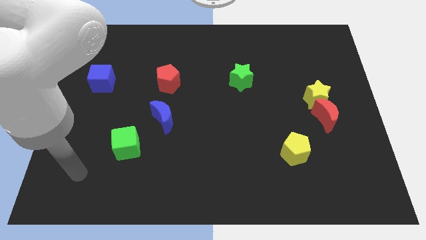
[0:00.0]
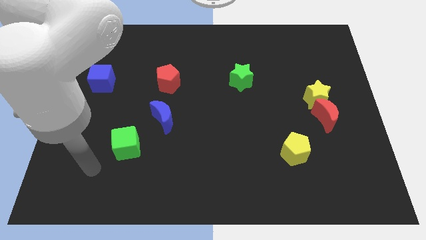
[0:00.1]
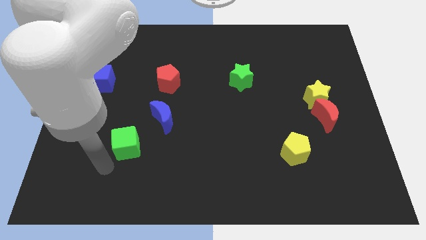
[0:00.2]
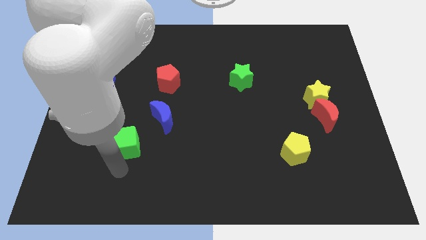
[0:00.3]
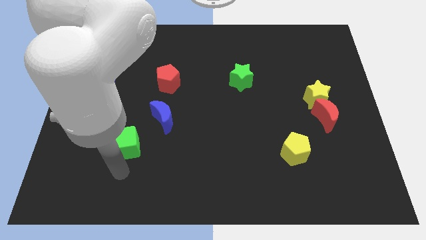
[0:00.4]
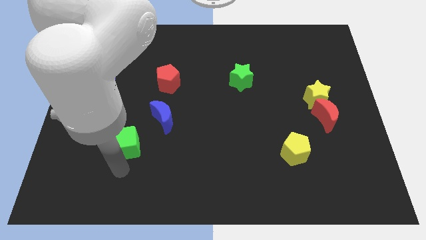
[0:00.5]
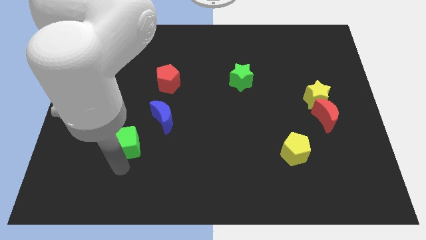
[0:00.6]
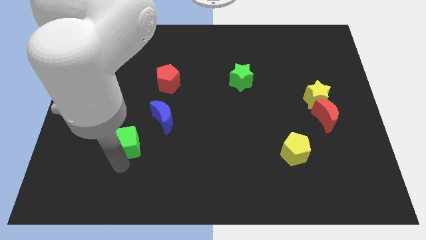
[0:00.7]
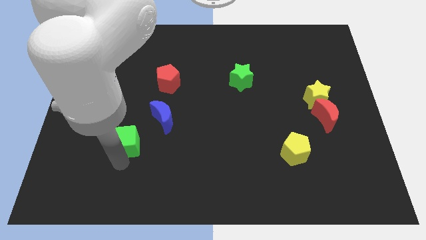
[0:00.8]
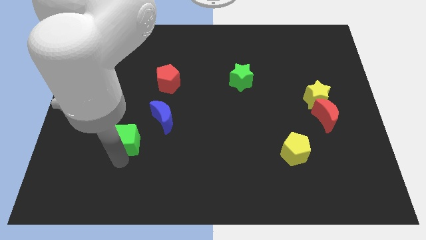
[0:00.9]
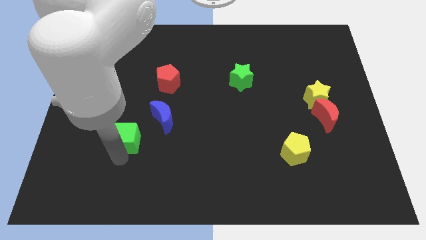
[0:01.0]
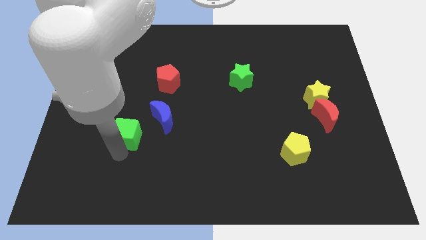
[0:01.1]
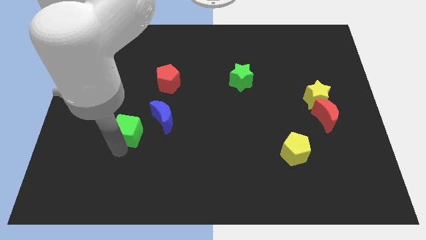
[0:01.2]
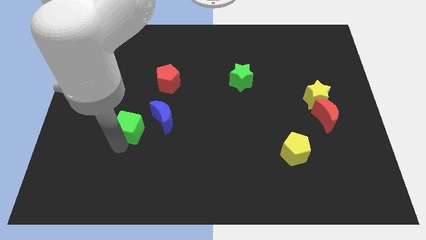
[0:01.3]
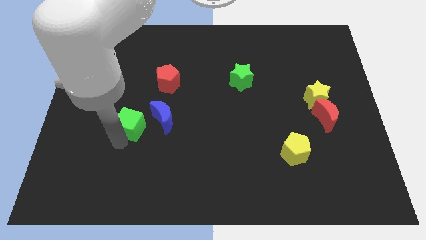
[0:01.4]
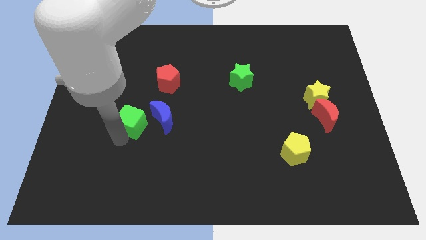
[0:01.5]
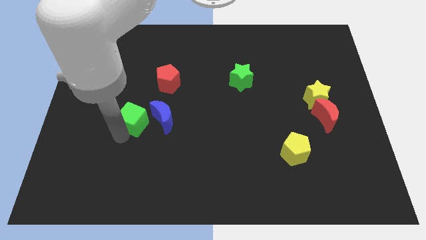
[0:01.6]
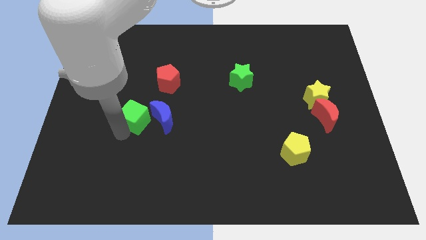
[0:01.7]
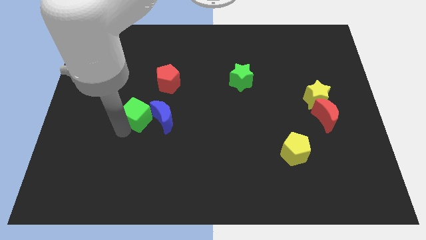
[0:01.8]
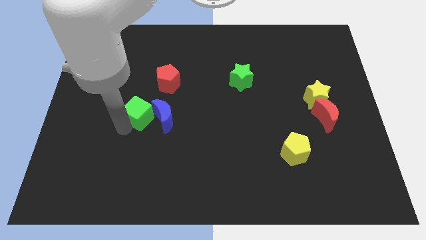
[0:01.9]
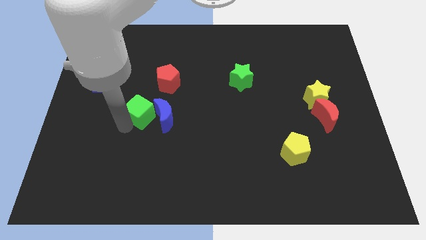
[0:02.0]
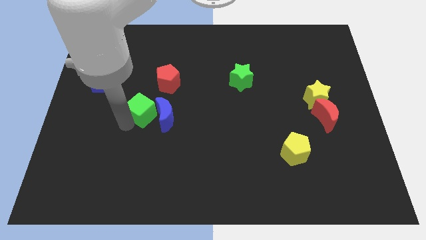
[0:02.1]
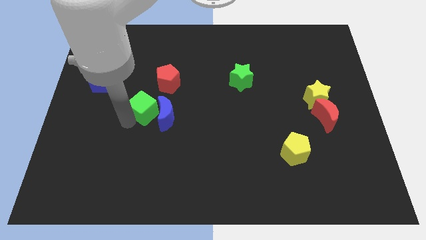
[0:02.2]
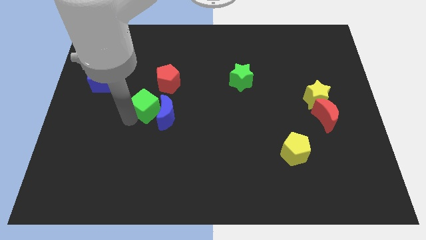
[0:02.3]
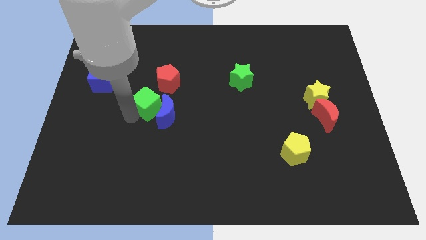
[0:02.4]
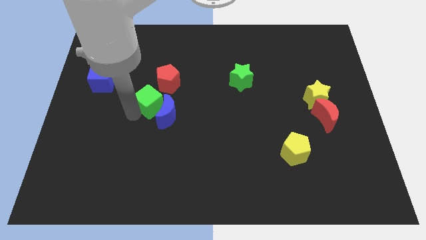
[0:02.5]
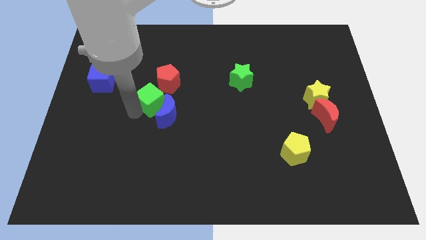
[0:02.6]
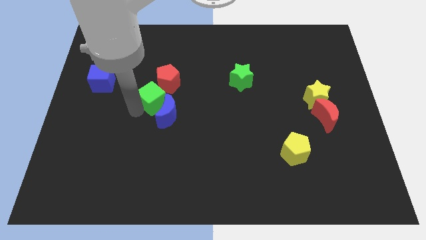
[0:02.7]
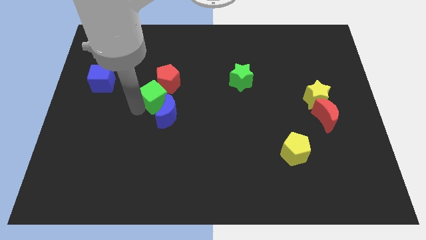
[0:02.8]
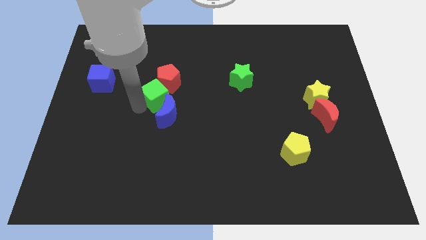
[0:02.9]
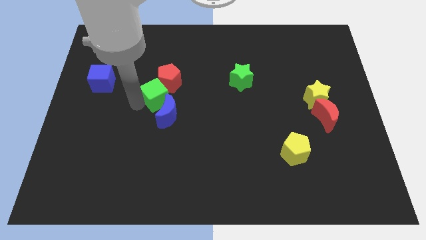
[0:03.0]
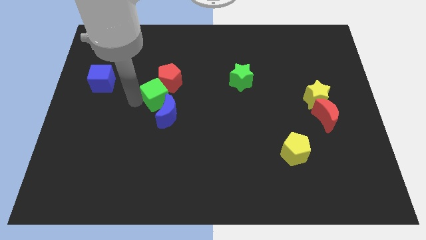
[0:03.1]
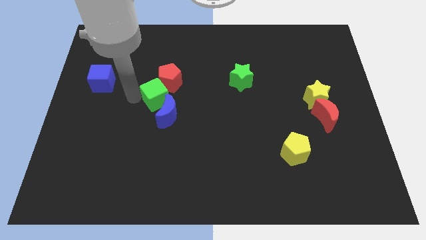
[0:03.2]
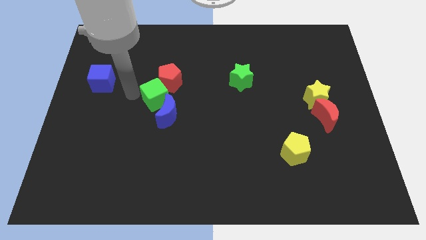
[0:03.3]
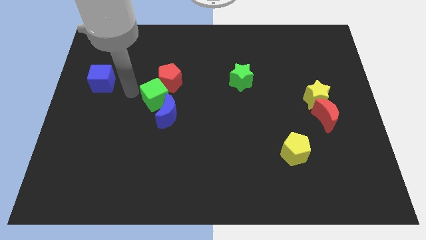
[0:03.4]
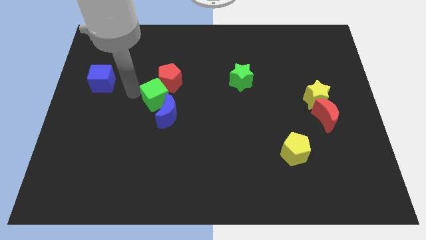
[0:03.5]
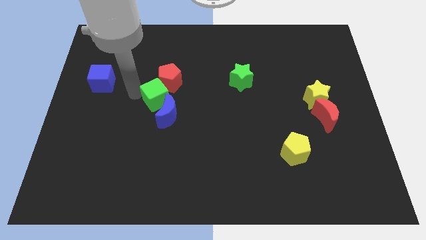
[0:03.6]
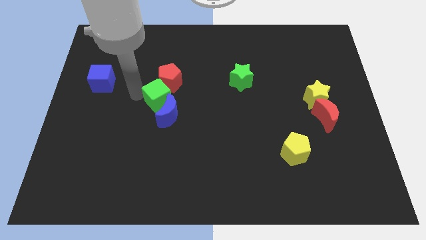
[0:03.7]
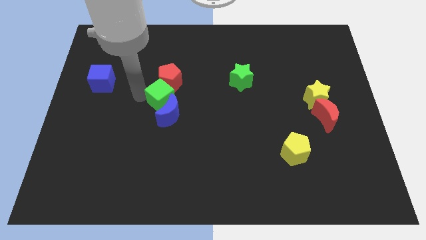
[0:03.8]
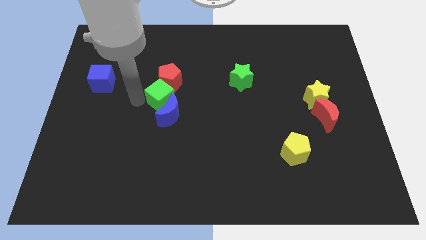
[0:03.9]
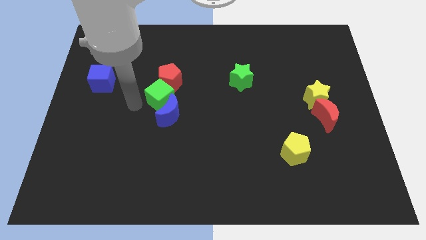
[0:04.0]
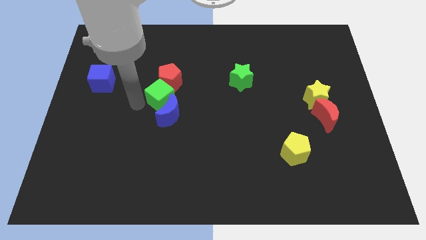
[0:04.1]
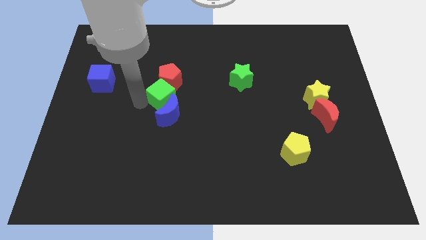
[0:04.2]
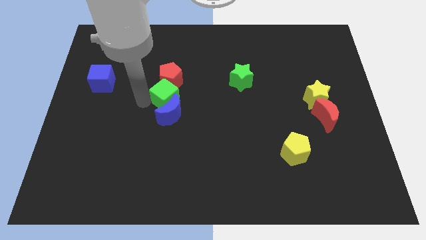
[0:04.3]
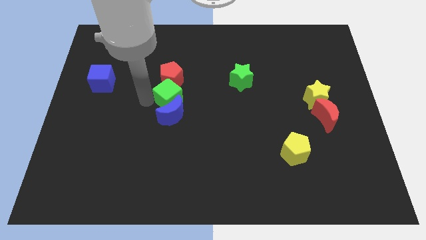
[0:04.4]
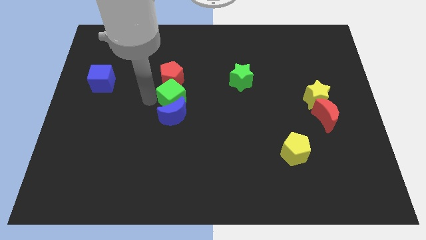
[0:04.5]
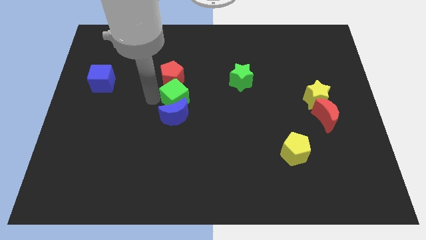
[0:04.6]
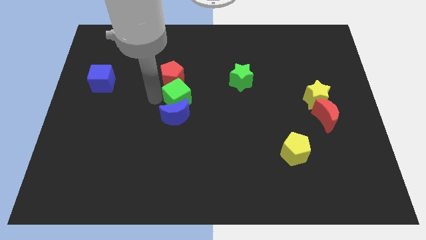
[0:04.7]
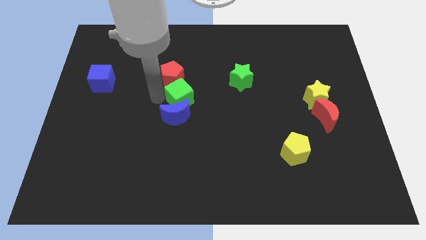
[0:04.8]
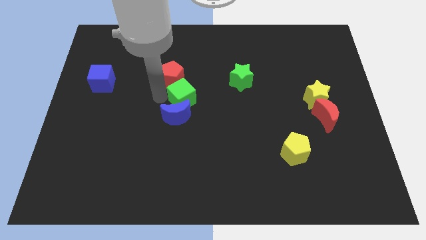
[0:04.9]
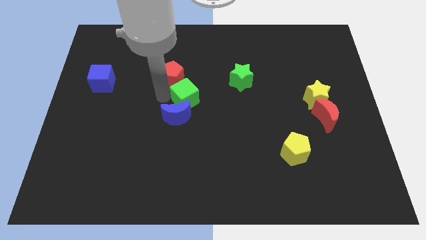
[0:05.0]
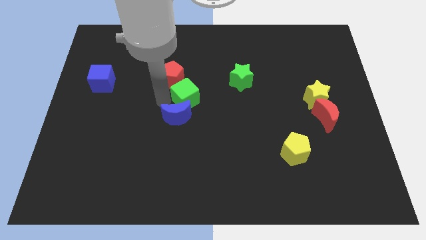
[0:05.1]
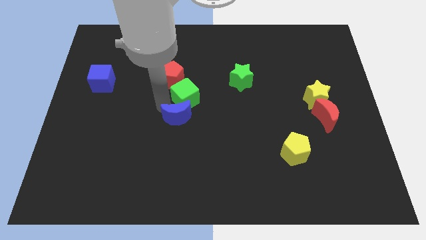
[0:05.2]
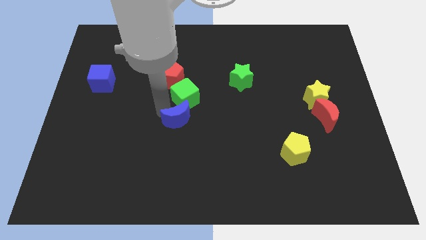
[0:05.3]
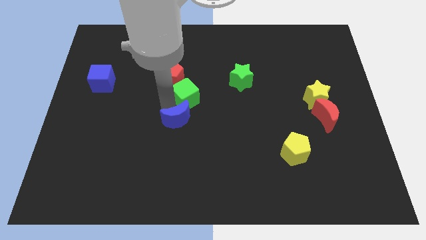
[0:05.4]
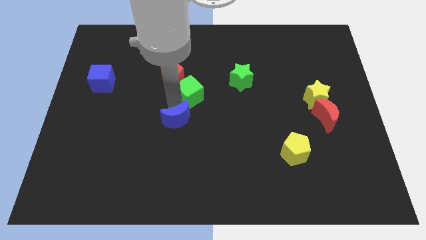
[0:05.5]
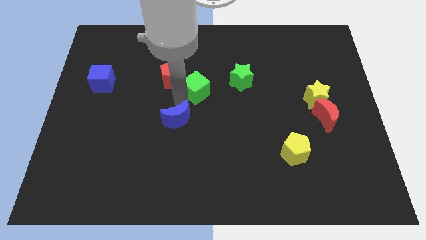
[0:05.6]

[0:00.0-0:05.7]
slide the green cube upwards and right

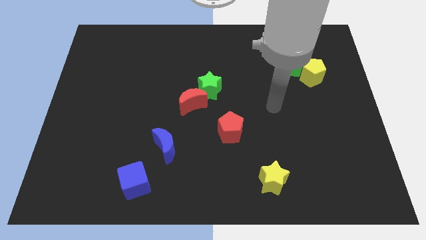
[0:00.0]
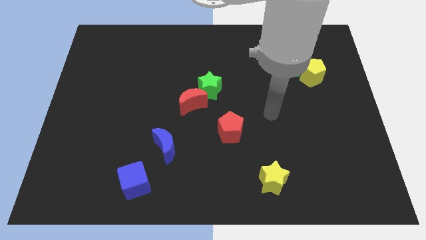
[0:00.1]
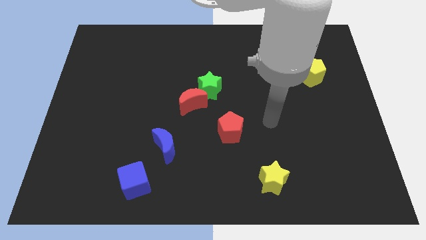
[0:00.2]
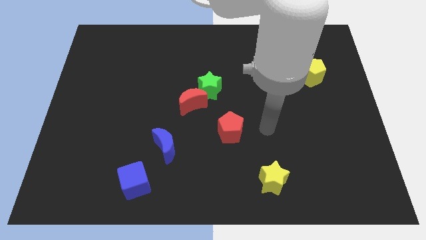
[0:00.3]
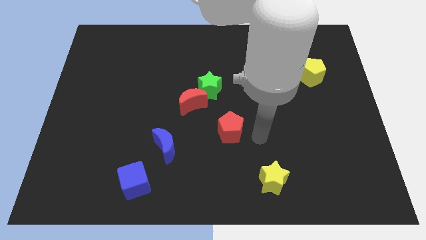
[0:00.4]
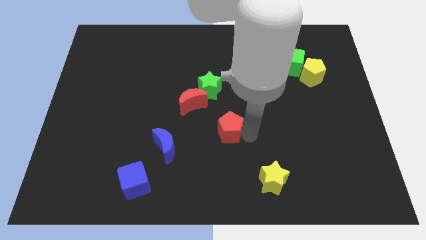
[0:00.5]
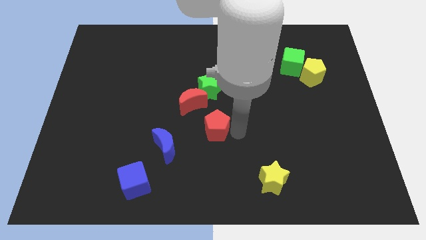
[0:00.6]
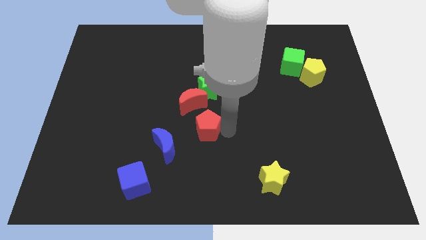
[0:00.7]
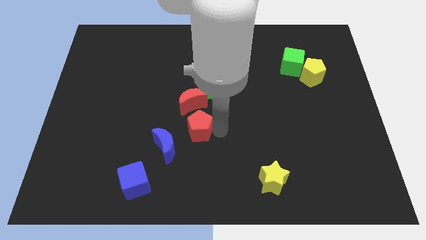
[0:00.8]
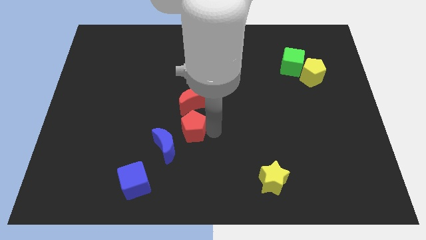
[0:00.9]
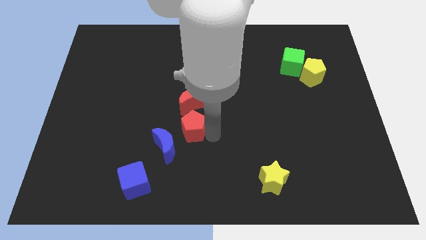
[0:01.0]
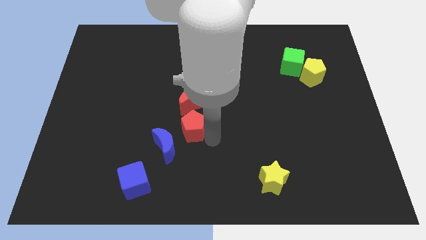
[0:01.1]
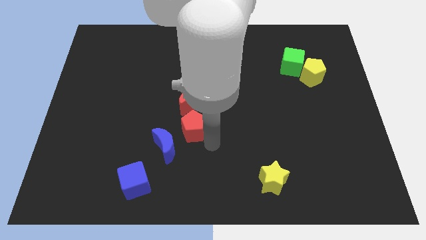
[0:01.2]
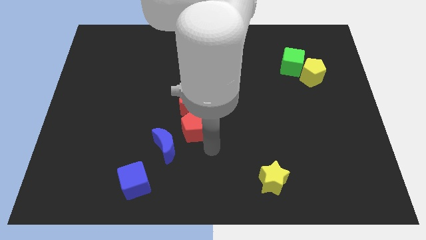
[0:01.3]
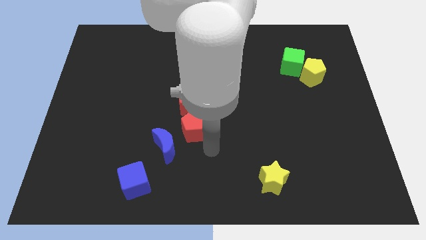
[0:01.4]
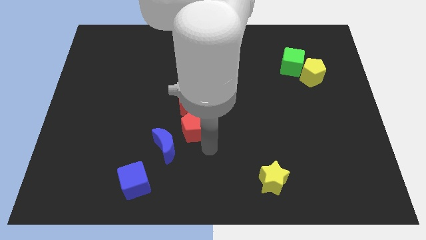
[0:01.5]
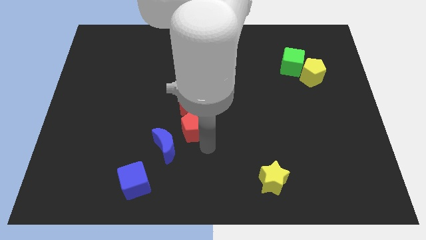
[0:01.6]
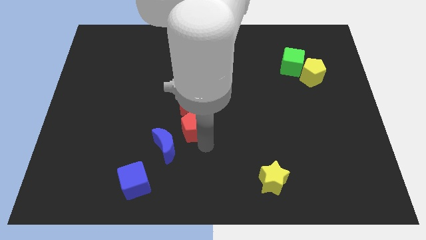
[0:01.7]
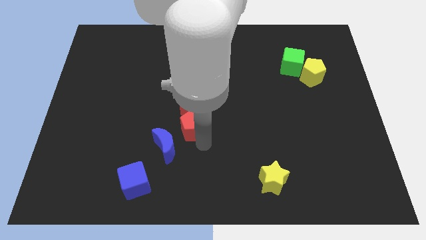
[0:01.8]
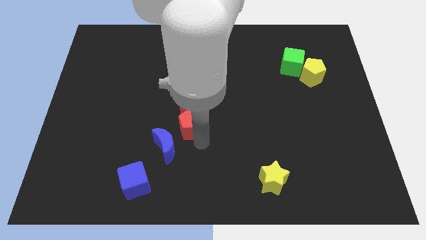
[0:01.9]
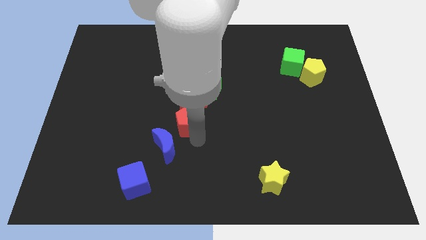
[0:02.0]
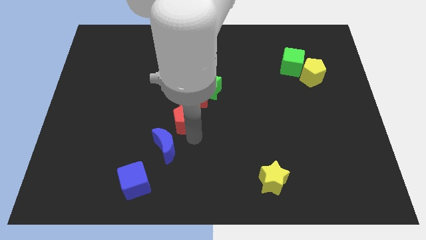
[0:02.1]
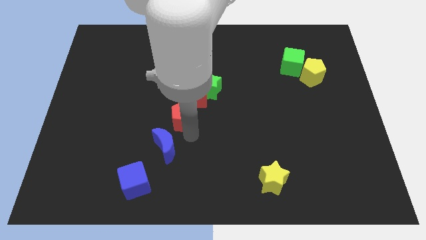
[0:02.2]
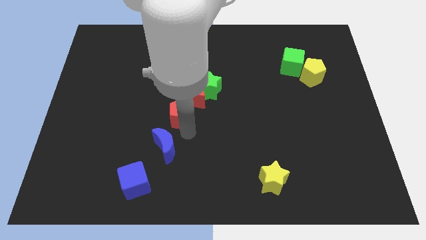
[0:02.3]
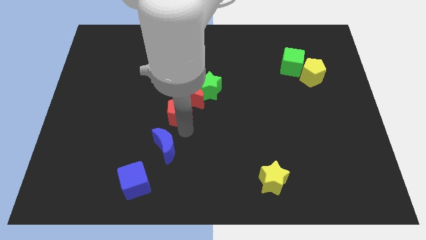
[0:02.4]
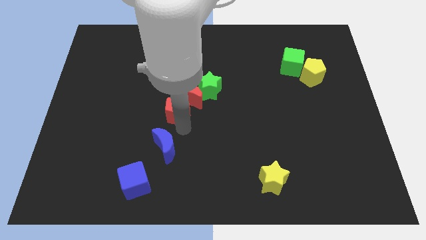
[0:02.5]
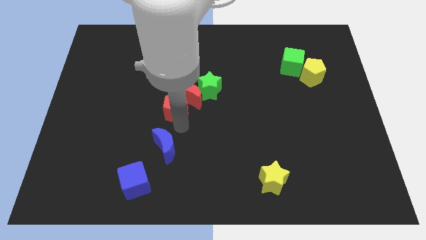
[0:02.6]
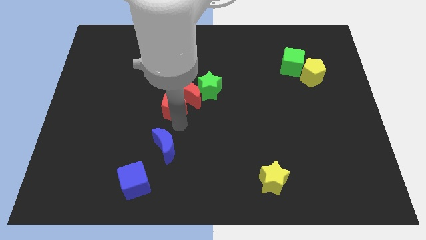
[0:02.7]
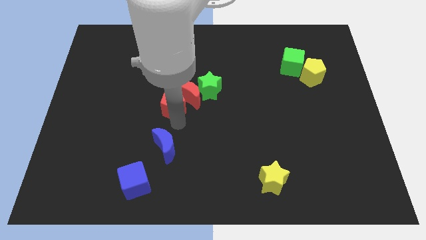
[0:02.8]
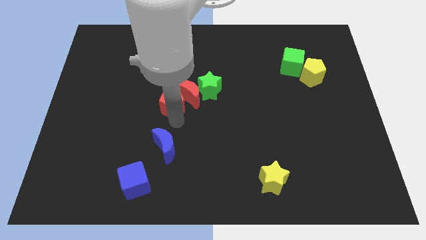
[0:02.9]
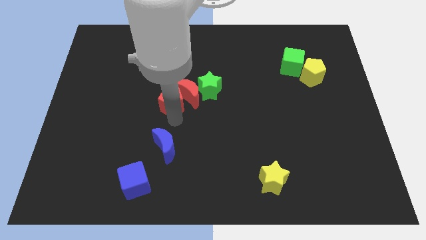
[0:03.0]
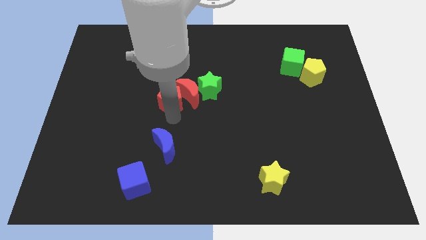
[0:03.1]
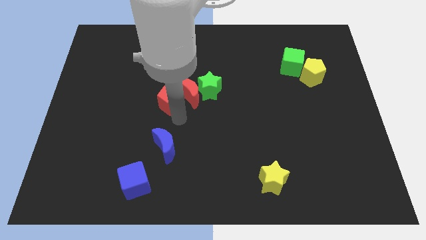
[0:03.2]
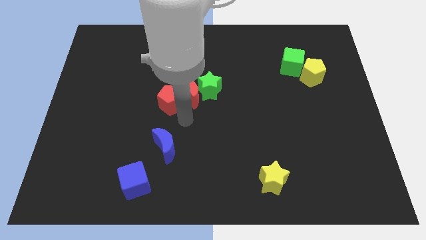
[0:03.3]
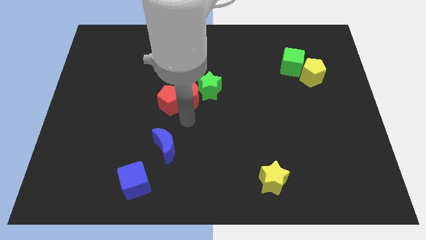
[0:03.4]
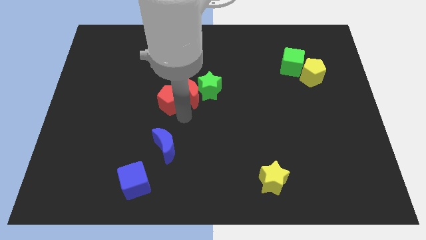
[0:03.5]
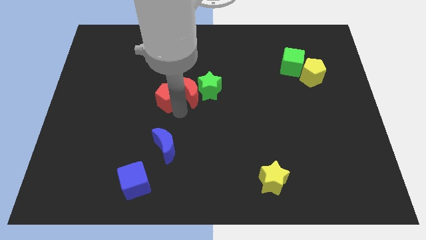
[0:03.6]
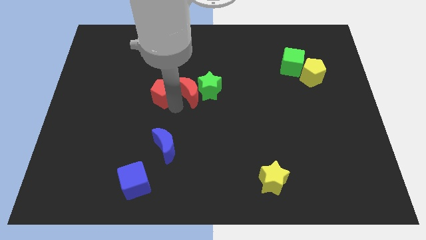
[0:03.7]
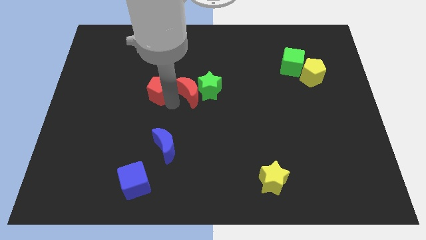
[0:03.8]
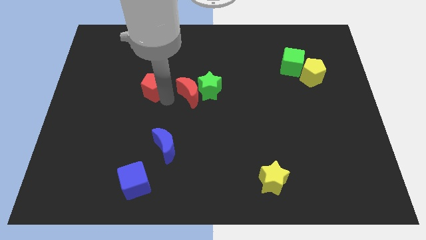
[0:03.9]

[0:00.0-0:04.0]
push the red pentagon up and left diagonally
